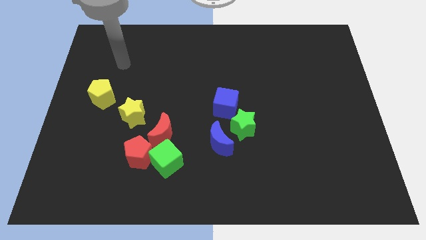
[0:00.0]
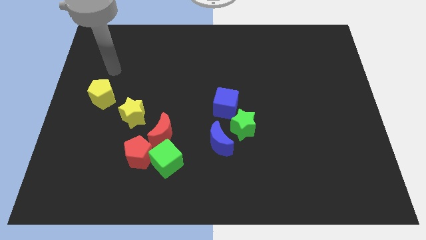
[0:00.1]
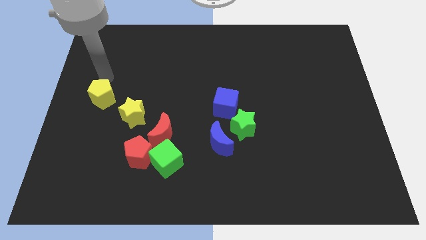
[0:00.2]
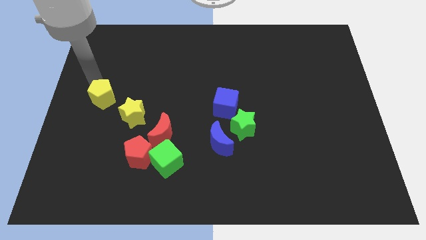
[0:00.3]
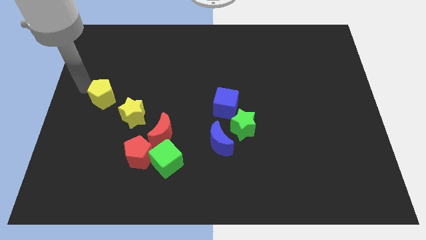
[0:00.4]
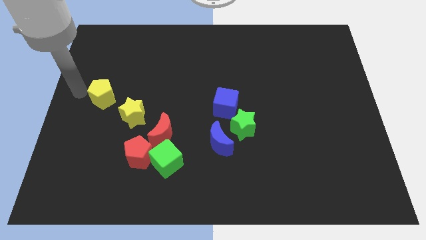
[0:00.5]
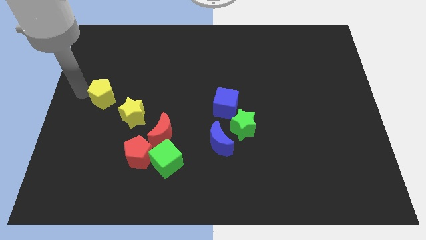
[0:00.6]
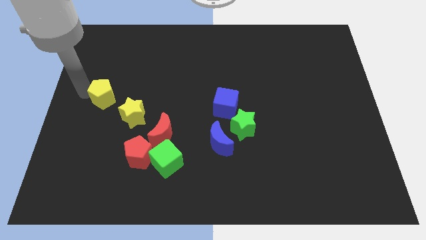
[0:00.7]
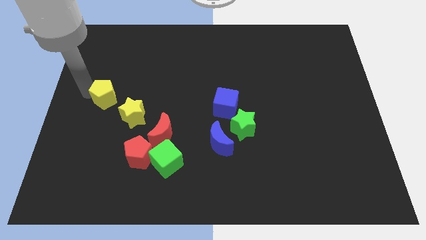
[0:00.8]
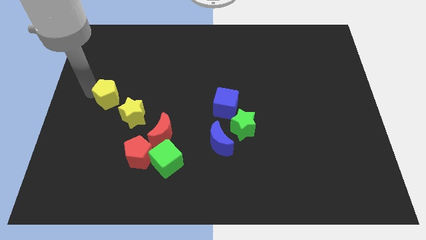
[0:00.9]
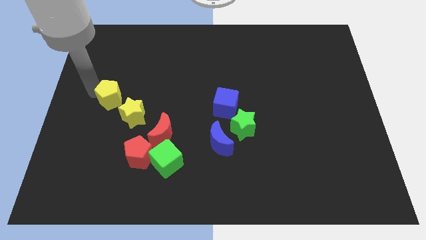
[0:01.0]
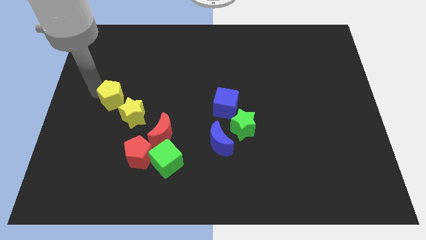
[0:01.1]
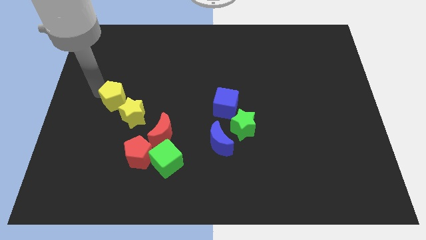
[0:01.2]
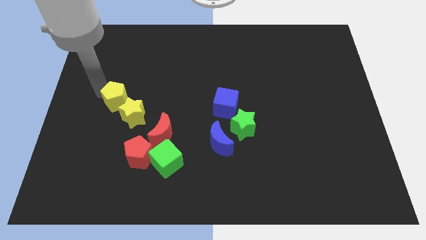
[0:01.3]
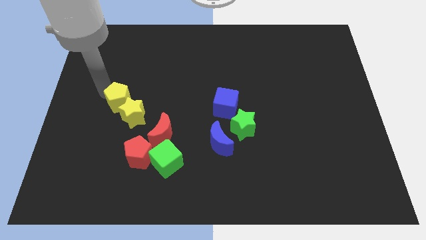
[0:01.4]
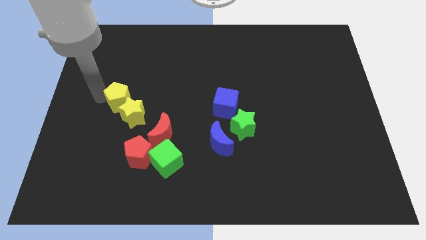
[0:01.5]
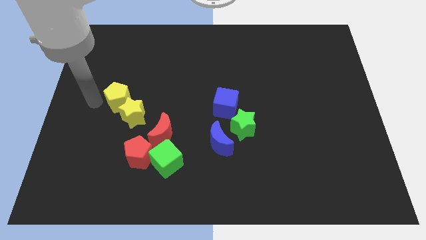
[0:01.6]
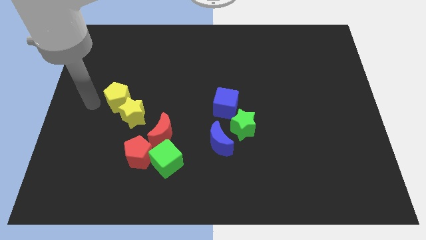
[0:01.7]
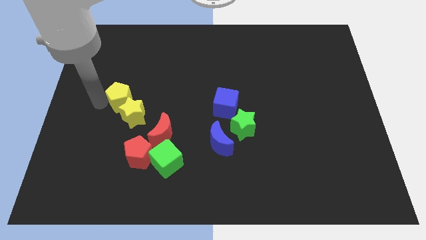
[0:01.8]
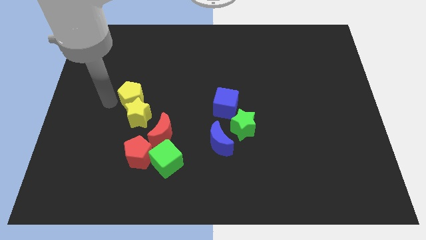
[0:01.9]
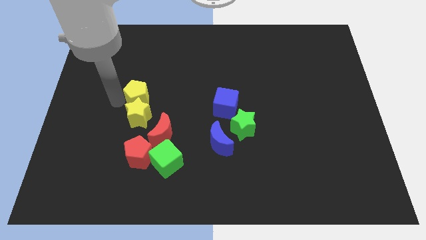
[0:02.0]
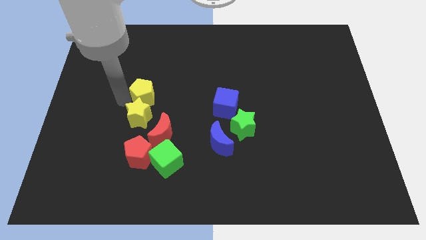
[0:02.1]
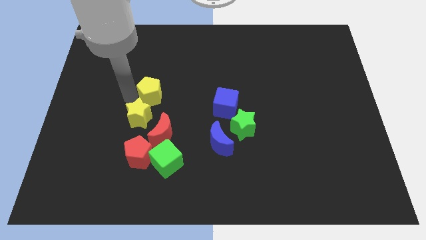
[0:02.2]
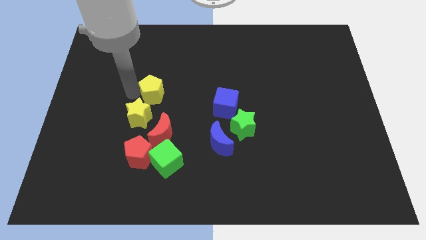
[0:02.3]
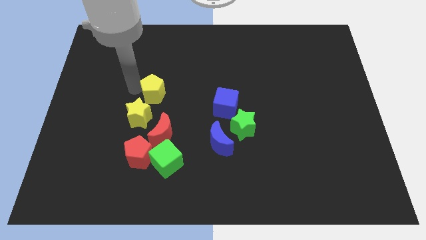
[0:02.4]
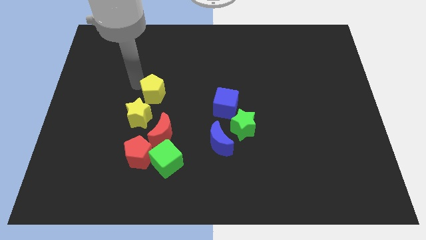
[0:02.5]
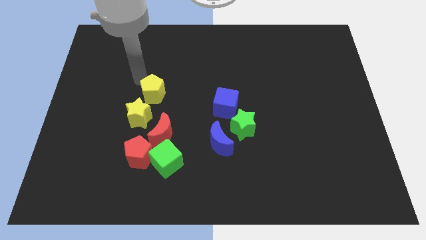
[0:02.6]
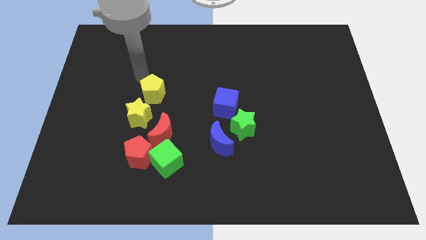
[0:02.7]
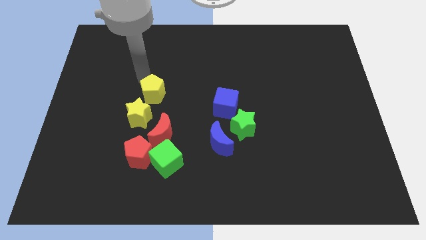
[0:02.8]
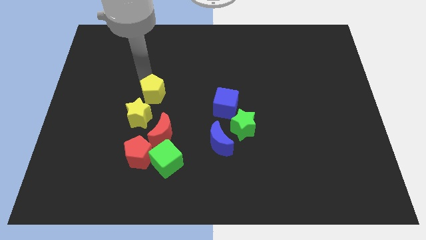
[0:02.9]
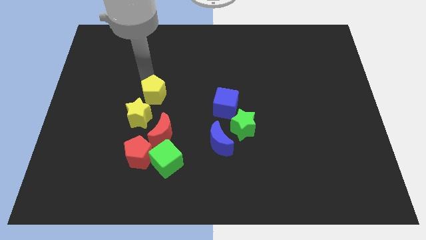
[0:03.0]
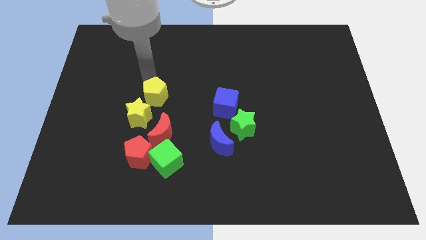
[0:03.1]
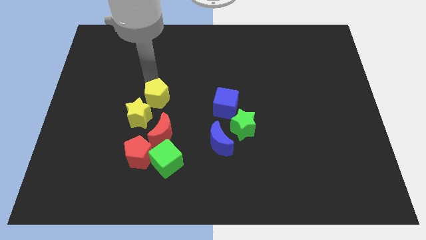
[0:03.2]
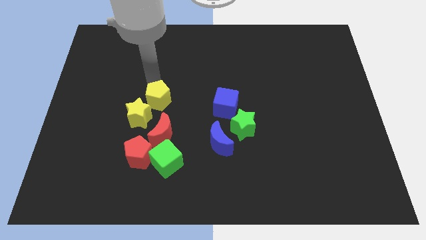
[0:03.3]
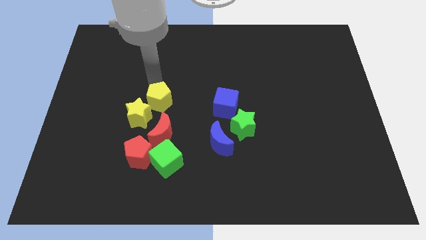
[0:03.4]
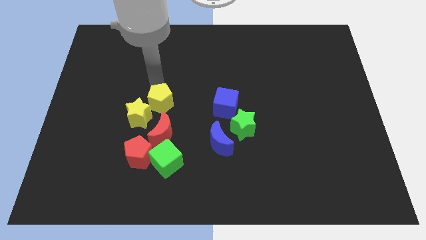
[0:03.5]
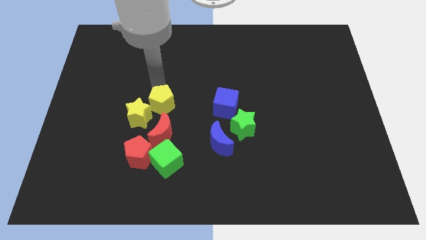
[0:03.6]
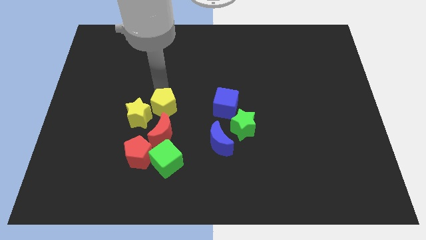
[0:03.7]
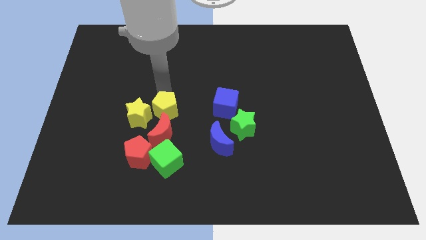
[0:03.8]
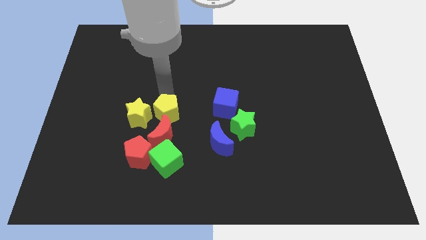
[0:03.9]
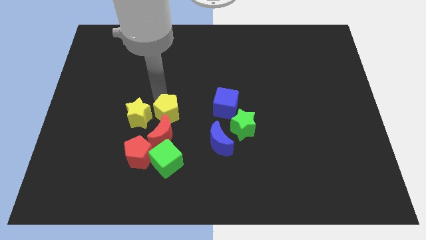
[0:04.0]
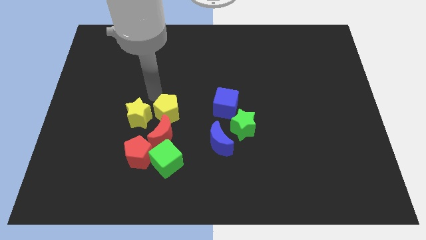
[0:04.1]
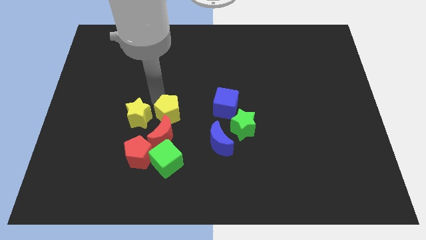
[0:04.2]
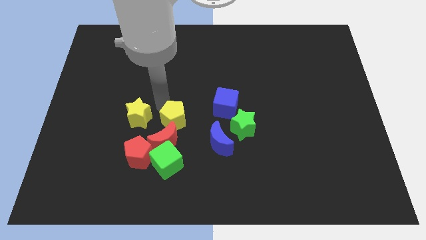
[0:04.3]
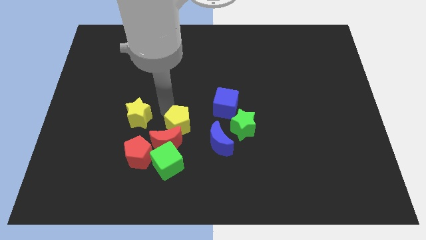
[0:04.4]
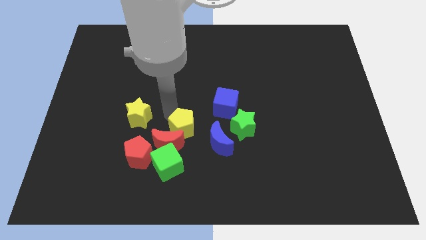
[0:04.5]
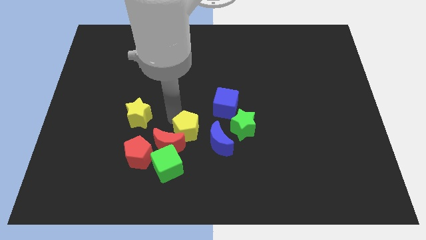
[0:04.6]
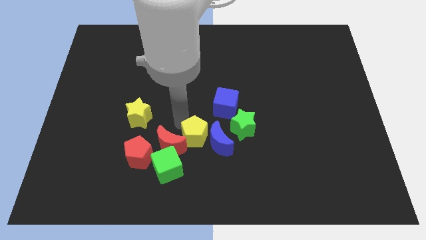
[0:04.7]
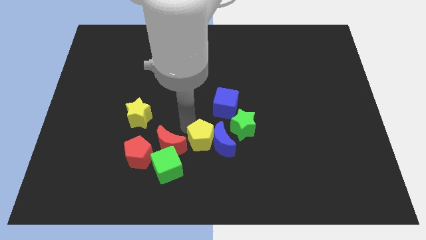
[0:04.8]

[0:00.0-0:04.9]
move the yellow pentagon to the bottom left of the blue moon

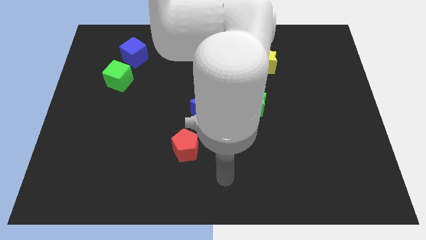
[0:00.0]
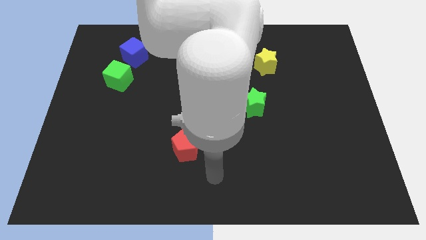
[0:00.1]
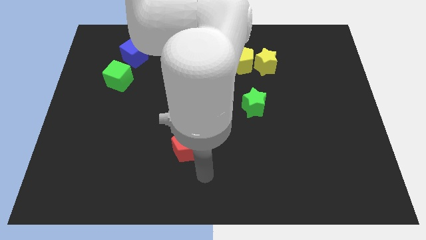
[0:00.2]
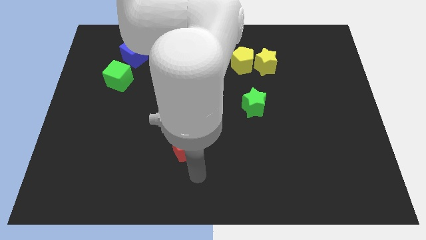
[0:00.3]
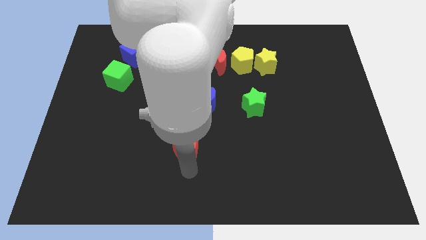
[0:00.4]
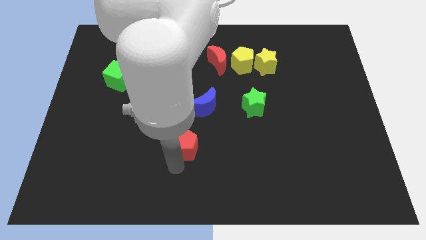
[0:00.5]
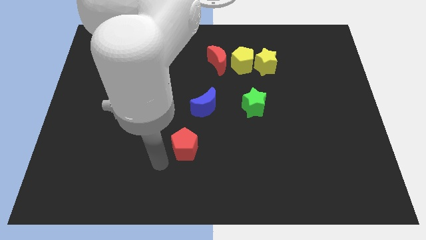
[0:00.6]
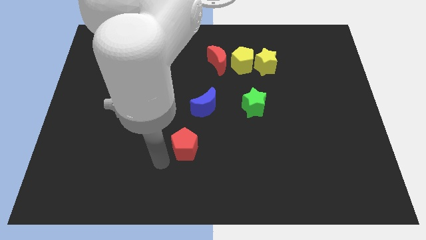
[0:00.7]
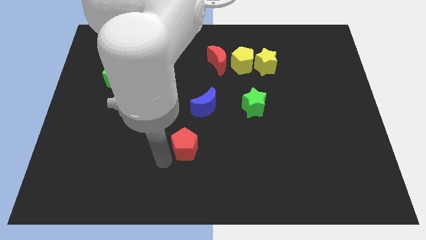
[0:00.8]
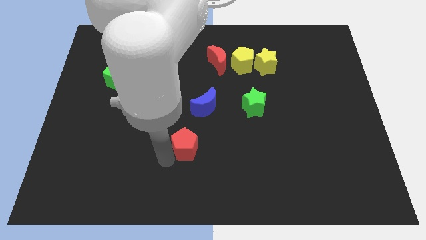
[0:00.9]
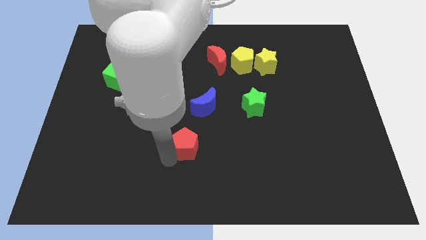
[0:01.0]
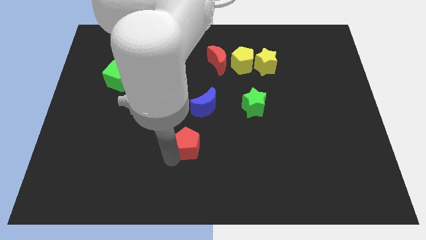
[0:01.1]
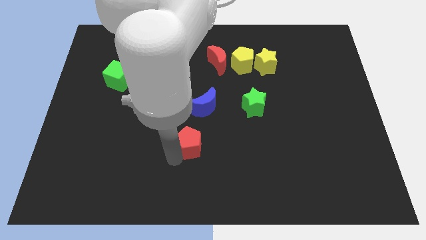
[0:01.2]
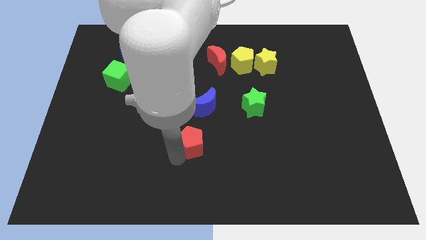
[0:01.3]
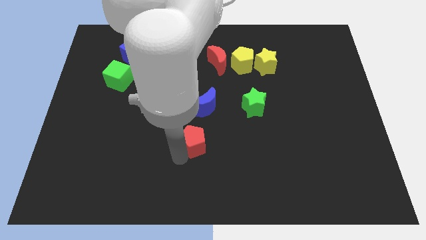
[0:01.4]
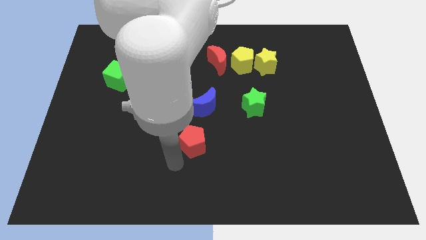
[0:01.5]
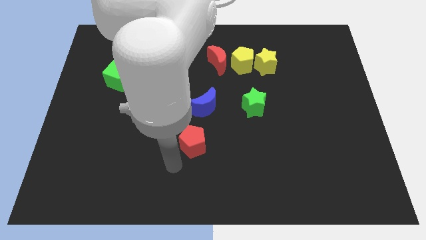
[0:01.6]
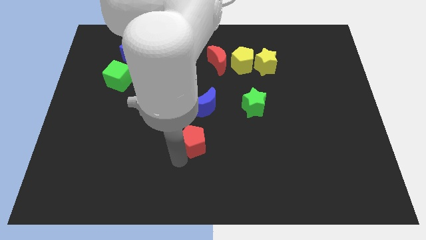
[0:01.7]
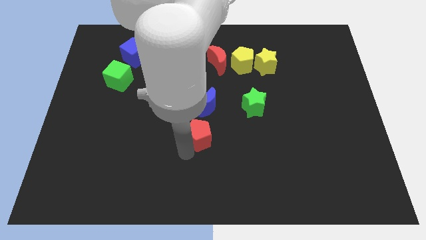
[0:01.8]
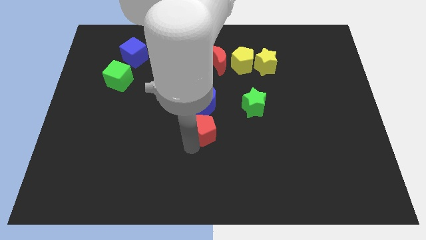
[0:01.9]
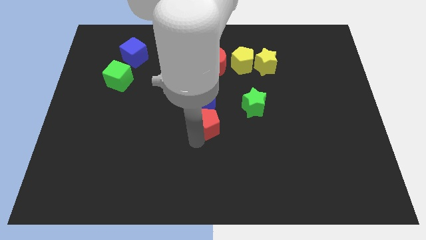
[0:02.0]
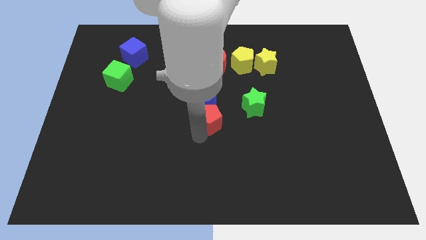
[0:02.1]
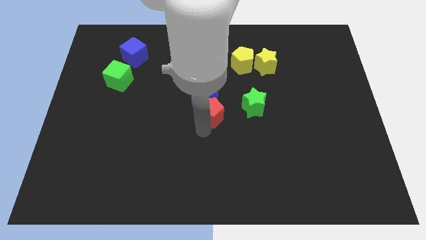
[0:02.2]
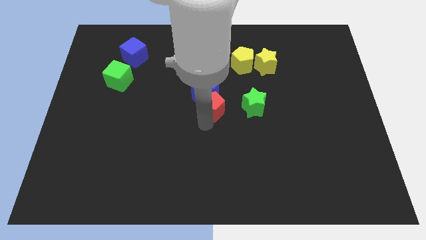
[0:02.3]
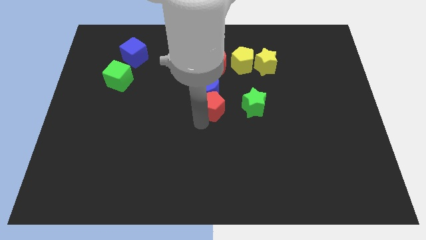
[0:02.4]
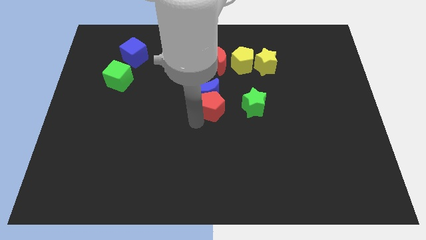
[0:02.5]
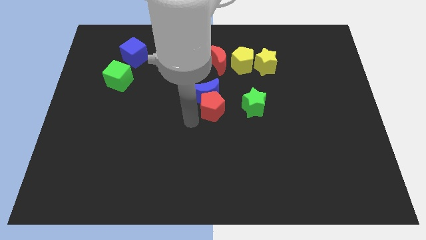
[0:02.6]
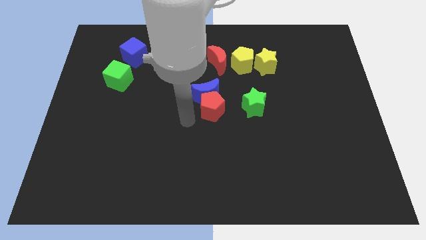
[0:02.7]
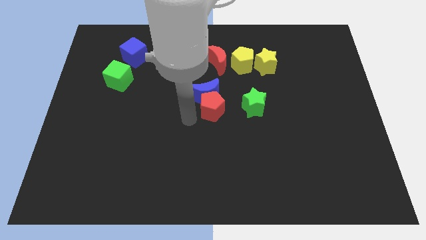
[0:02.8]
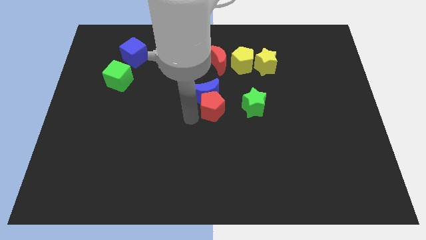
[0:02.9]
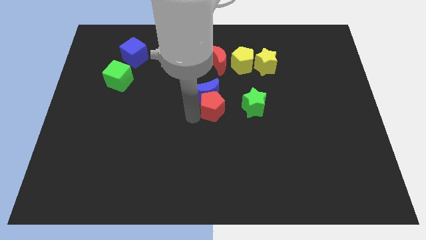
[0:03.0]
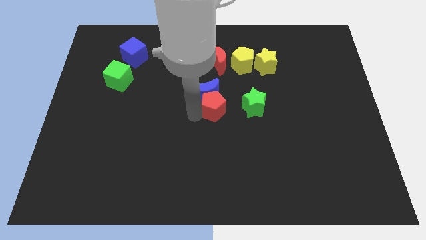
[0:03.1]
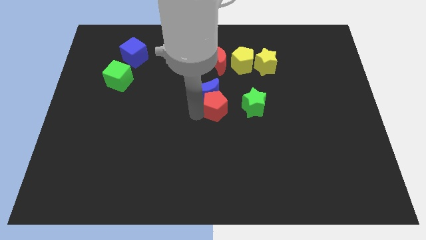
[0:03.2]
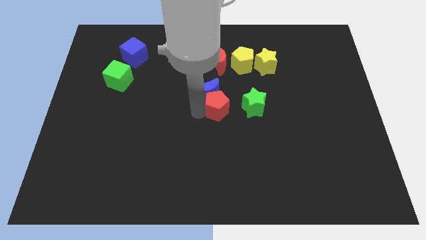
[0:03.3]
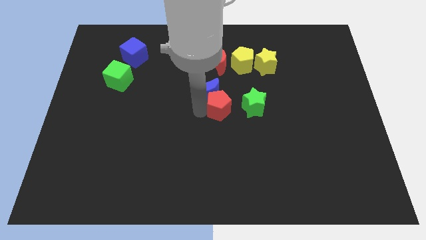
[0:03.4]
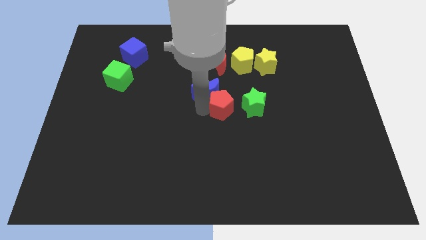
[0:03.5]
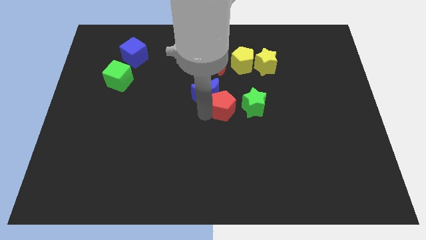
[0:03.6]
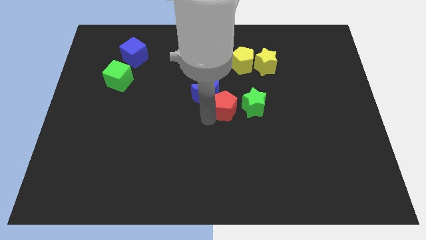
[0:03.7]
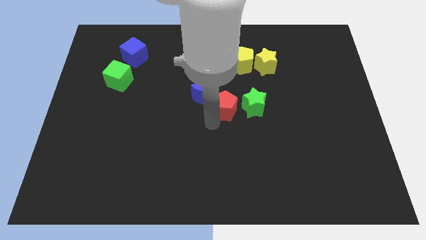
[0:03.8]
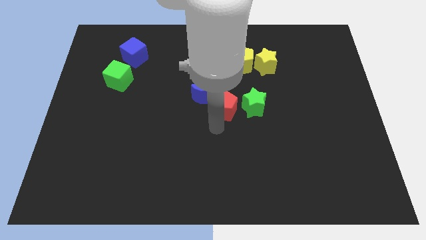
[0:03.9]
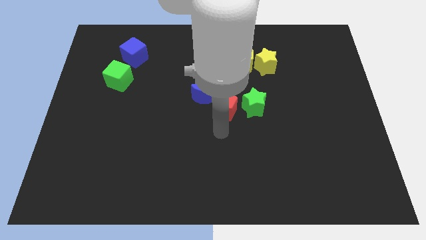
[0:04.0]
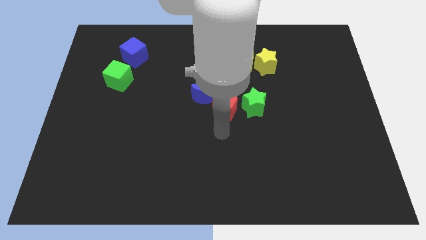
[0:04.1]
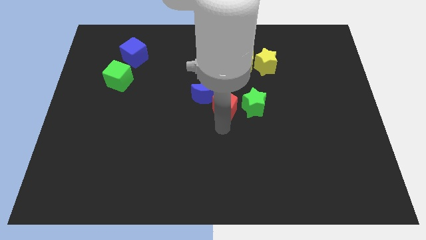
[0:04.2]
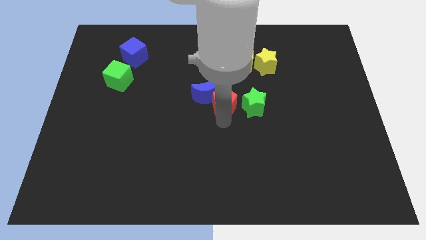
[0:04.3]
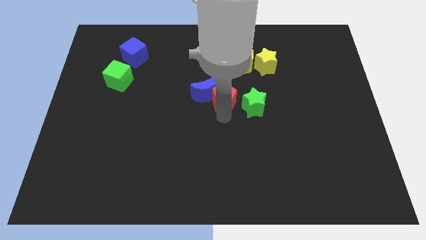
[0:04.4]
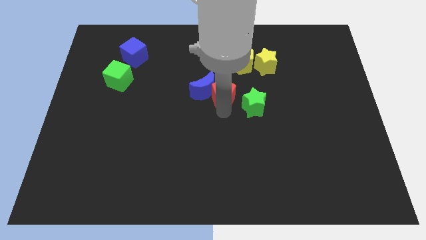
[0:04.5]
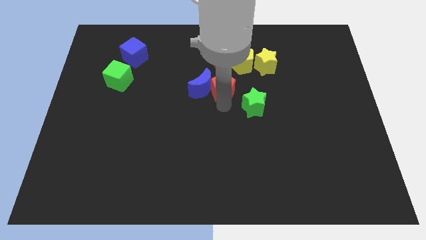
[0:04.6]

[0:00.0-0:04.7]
put the red pentagon diagonally down and to the left of the yellow pentagon
